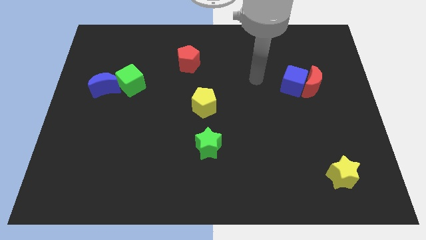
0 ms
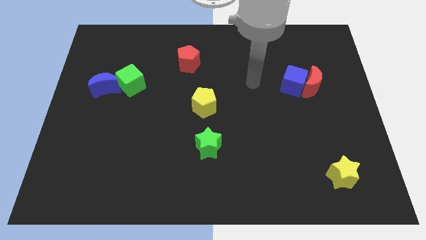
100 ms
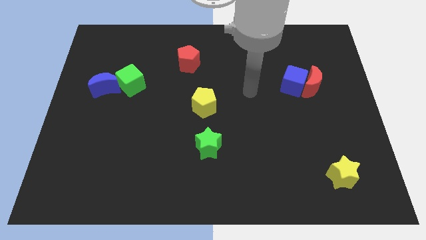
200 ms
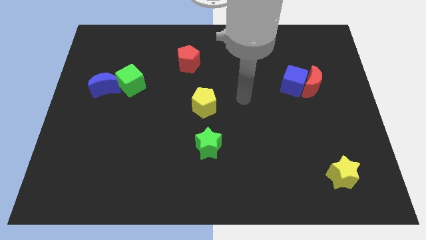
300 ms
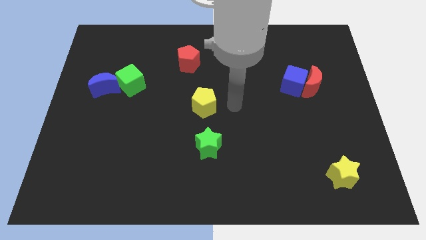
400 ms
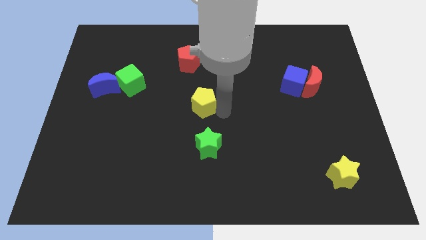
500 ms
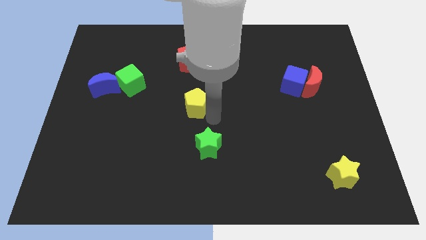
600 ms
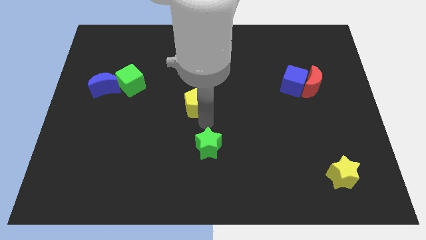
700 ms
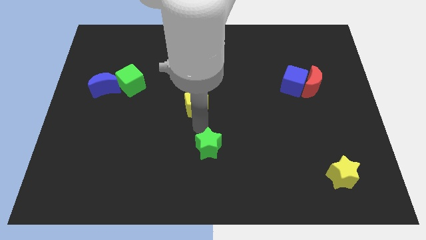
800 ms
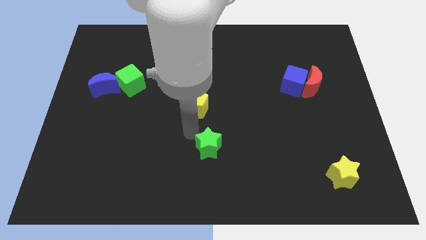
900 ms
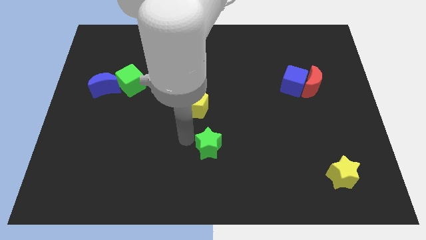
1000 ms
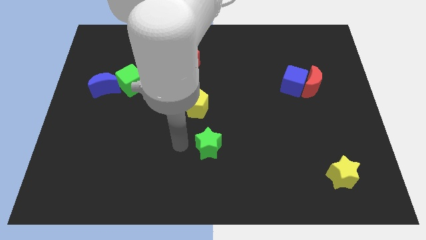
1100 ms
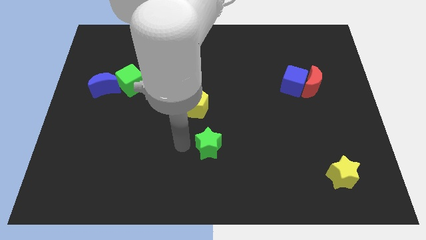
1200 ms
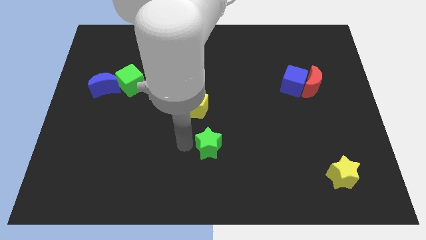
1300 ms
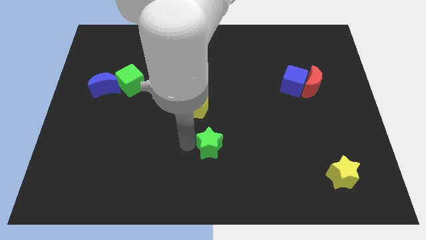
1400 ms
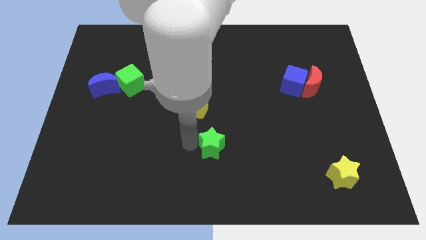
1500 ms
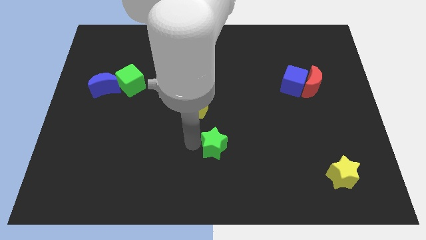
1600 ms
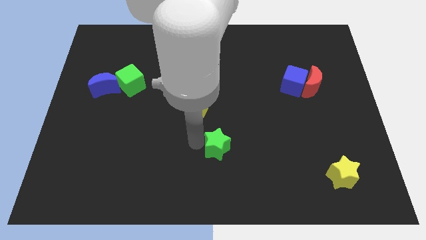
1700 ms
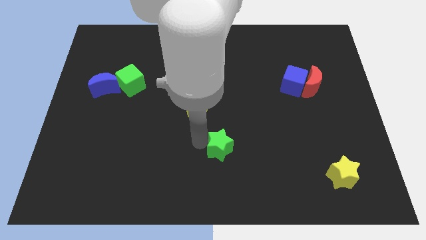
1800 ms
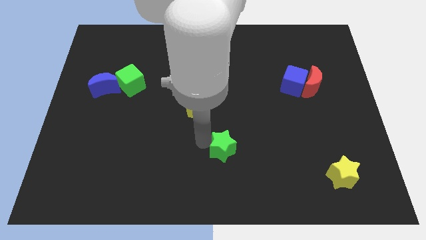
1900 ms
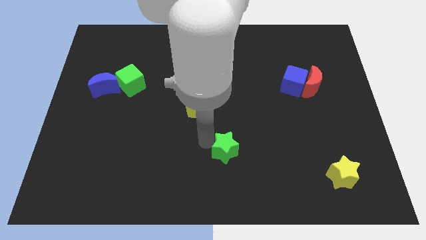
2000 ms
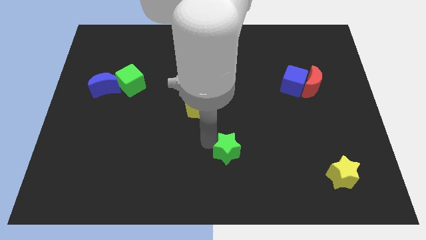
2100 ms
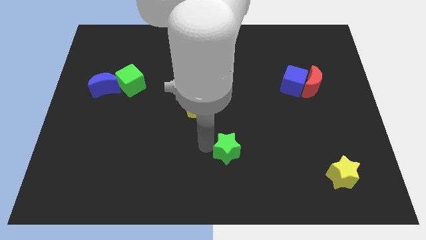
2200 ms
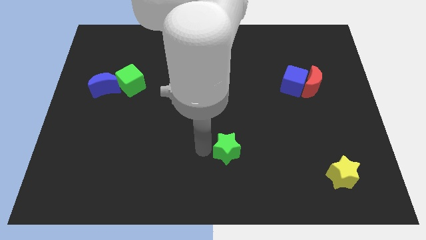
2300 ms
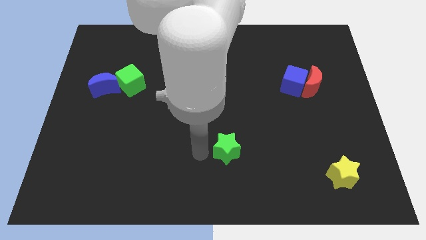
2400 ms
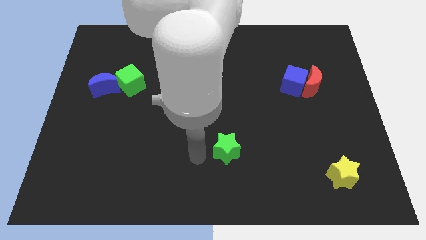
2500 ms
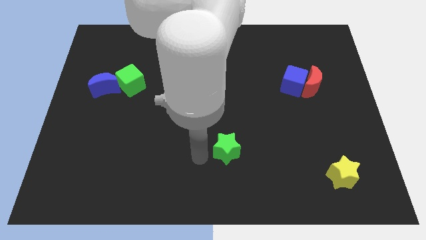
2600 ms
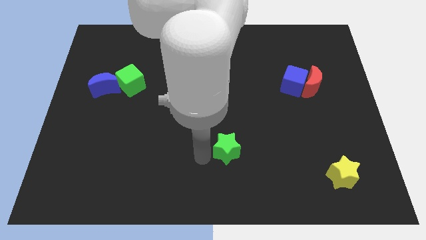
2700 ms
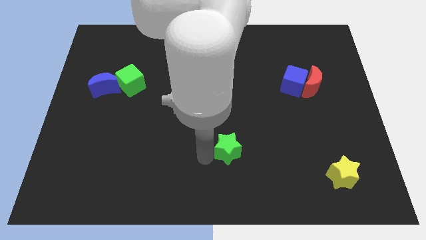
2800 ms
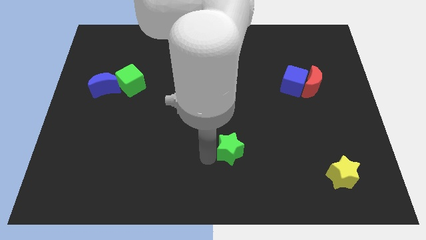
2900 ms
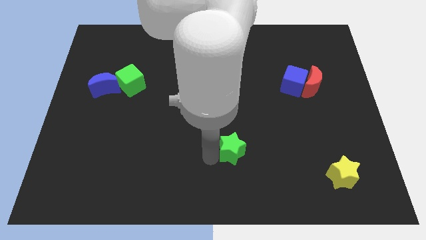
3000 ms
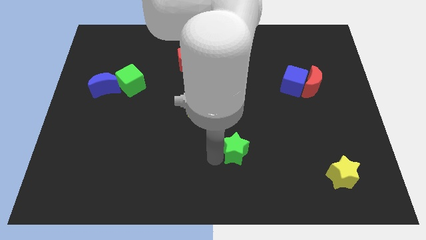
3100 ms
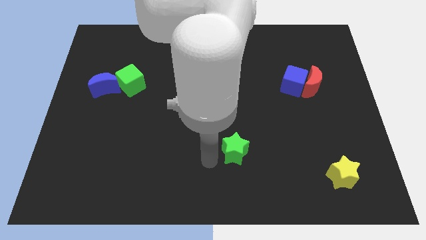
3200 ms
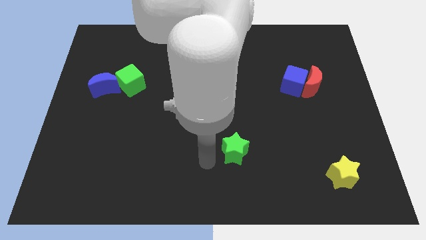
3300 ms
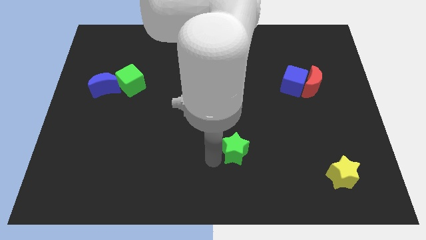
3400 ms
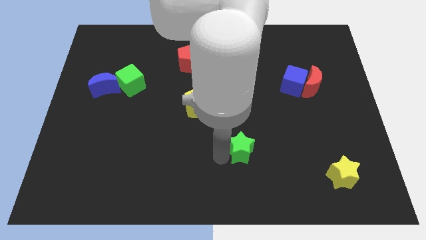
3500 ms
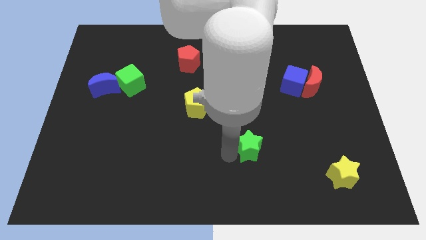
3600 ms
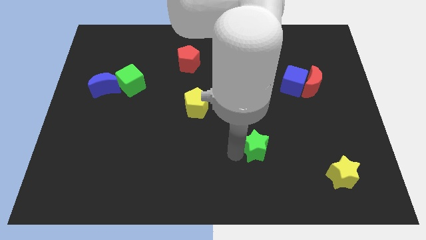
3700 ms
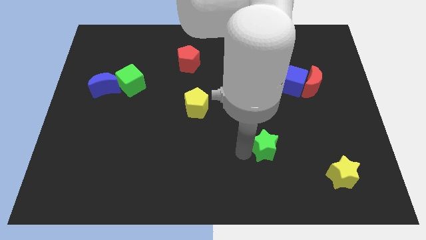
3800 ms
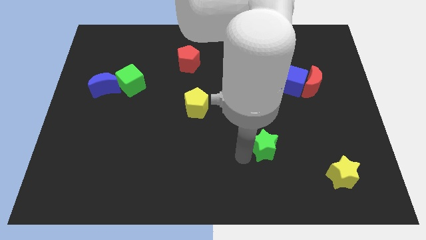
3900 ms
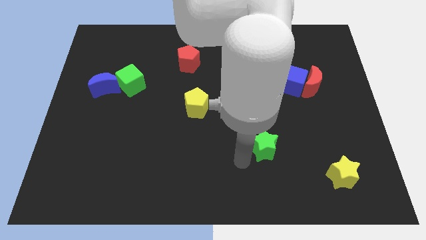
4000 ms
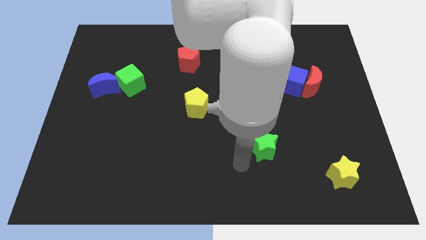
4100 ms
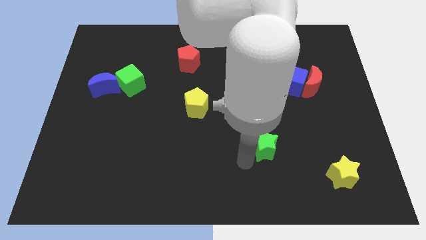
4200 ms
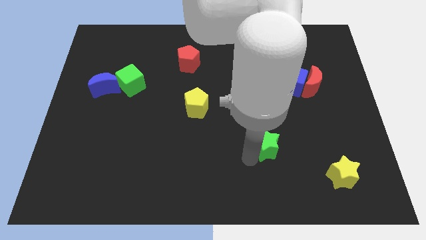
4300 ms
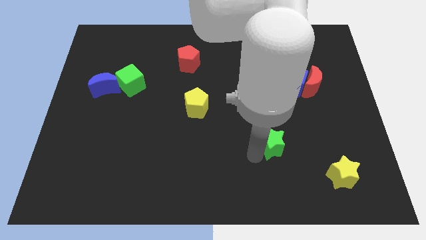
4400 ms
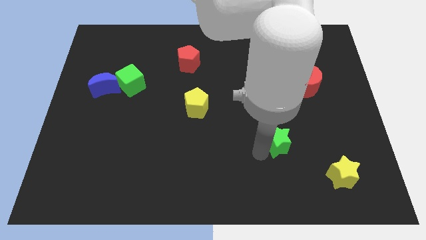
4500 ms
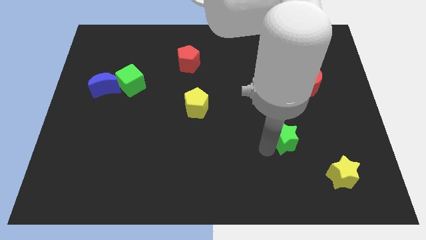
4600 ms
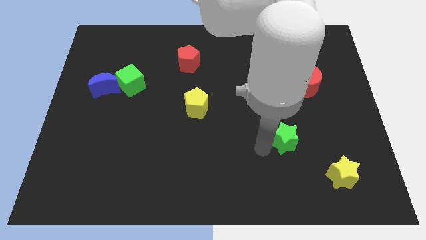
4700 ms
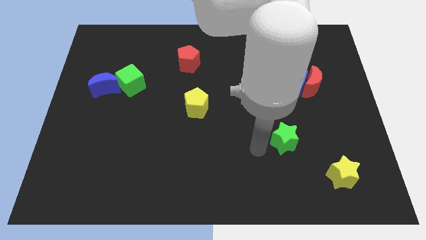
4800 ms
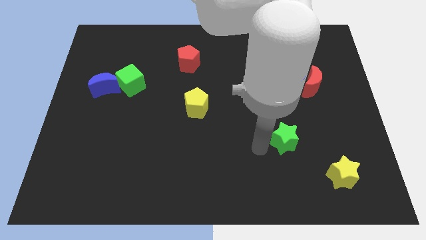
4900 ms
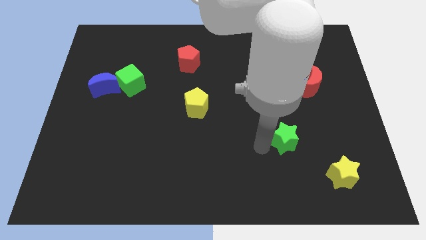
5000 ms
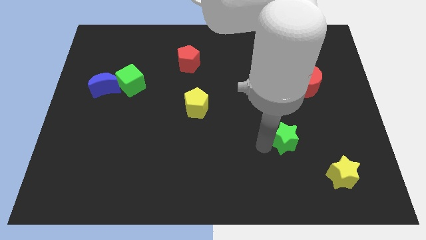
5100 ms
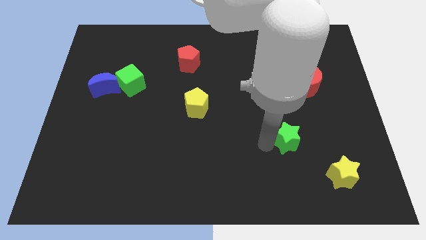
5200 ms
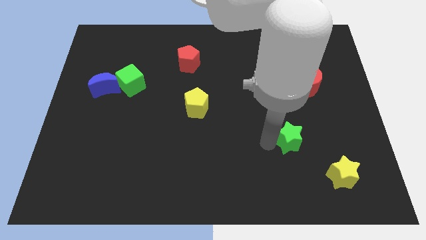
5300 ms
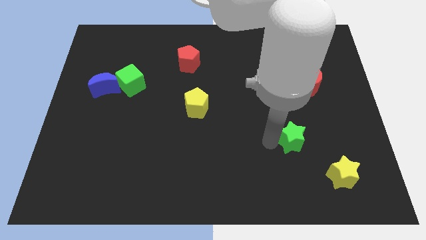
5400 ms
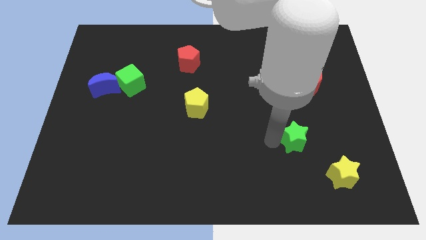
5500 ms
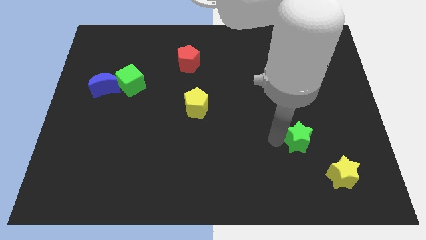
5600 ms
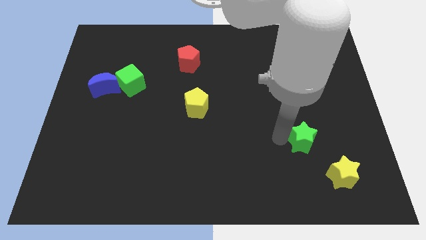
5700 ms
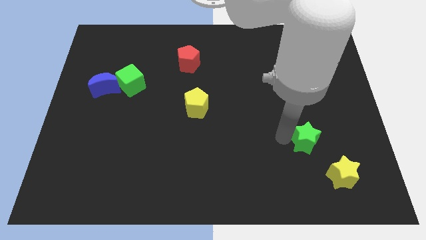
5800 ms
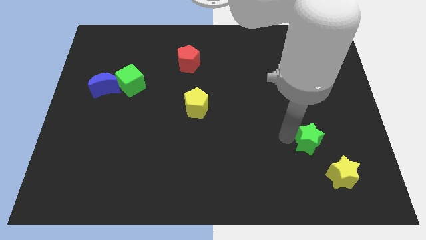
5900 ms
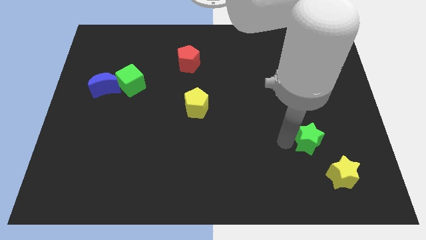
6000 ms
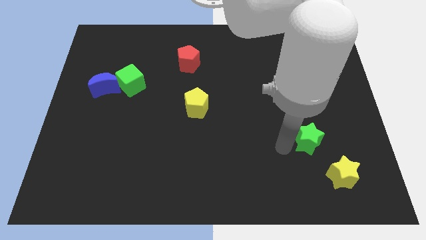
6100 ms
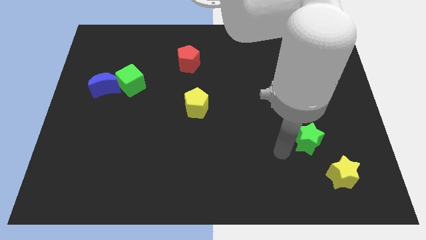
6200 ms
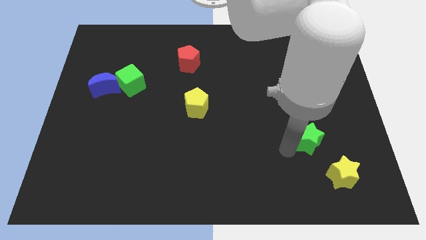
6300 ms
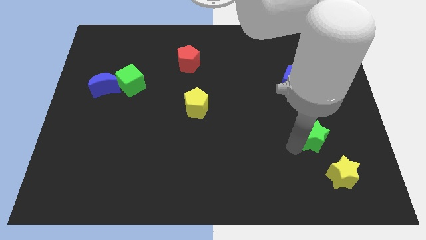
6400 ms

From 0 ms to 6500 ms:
push the green star to the top side of the yellow star
